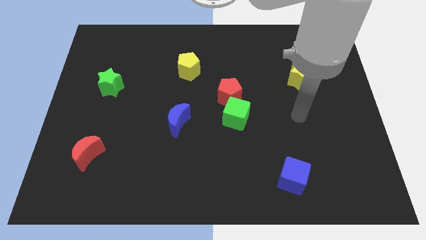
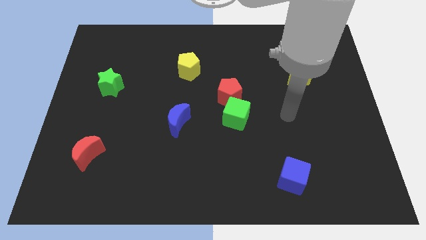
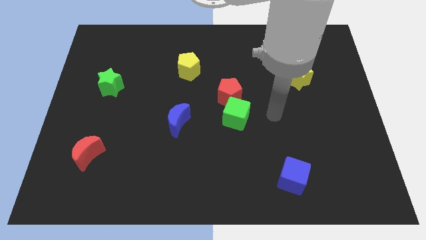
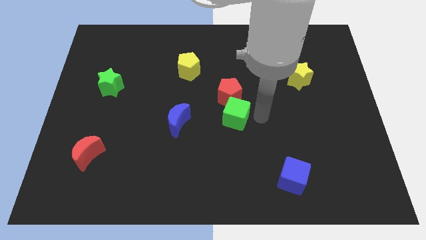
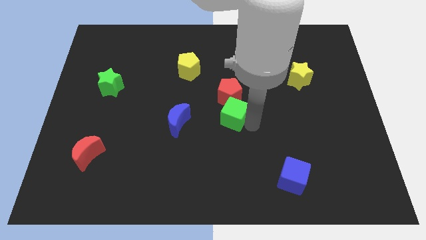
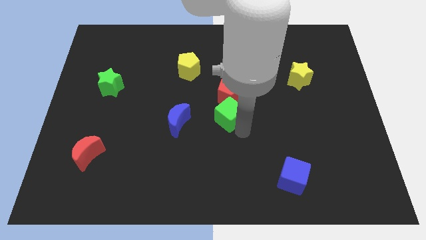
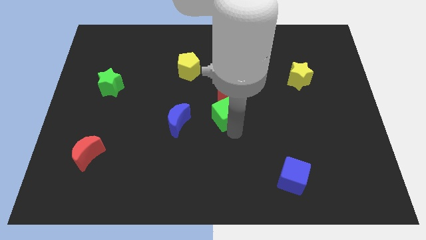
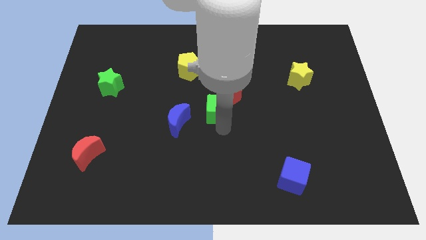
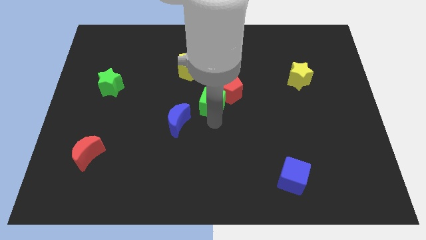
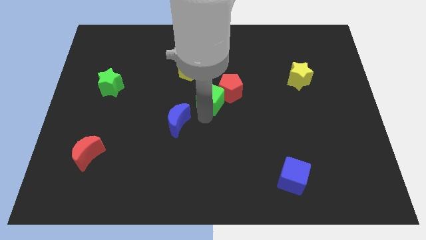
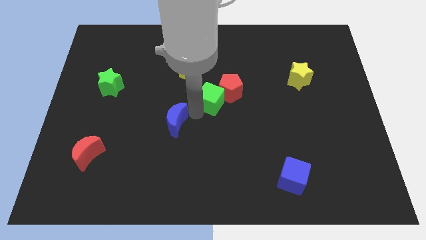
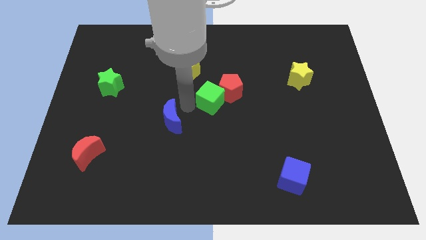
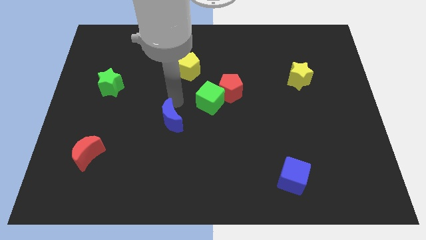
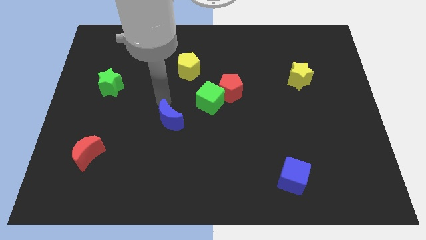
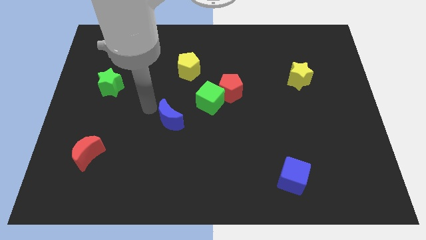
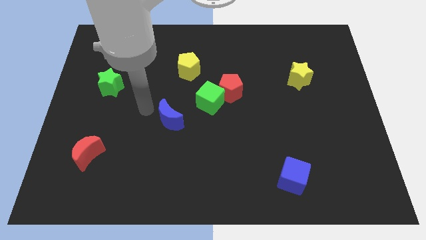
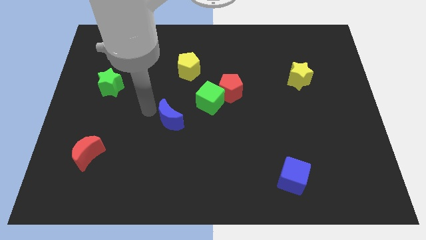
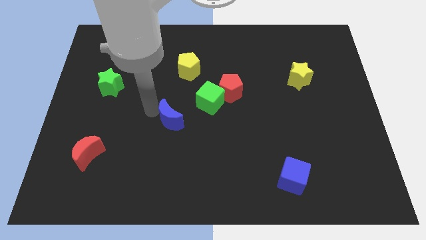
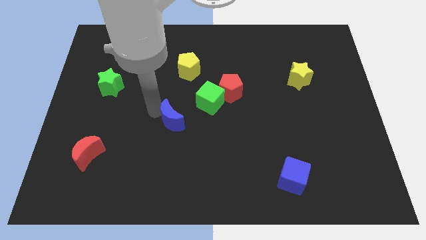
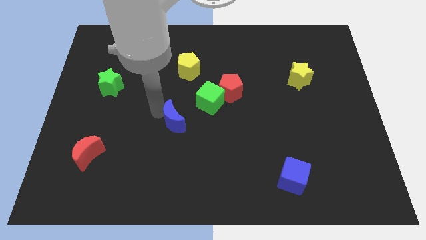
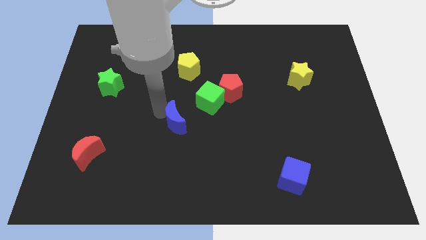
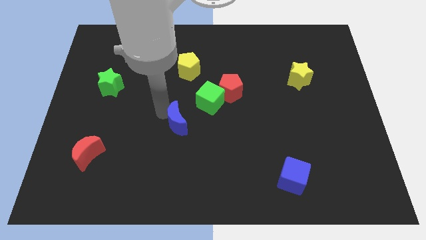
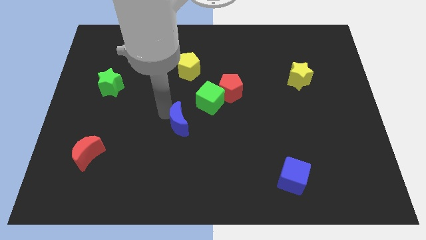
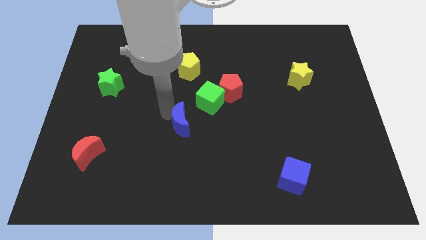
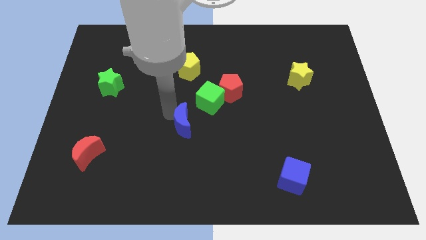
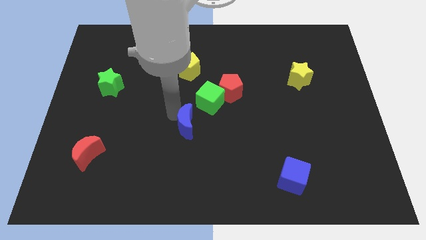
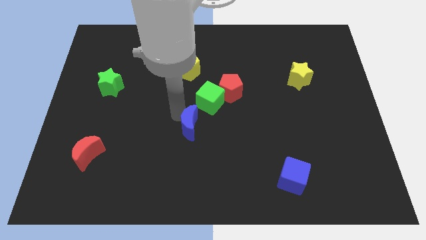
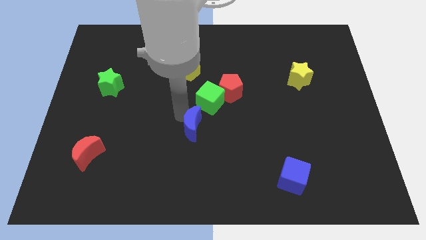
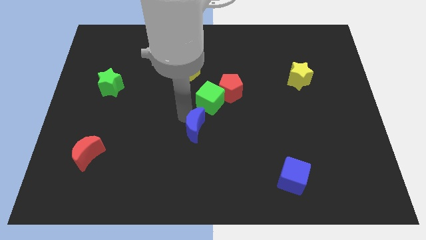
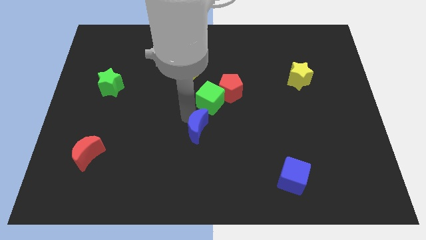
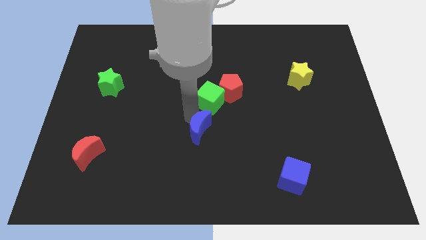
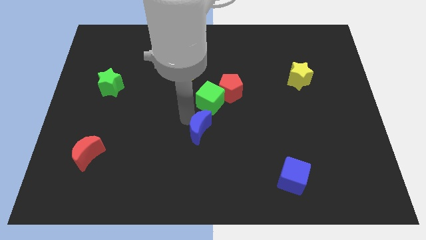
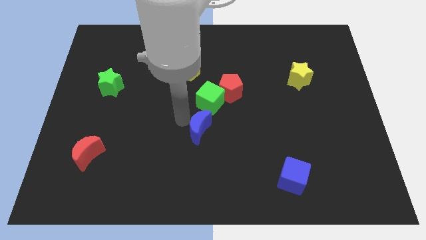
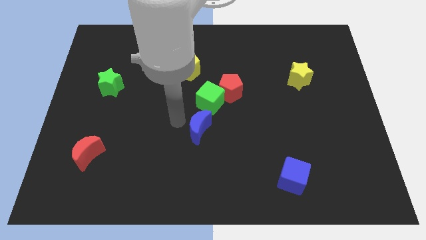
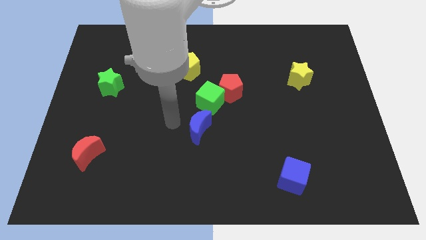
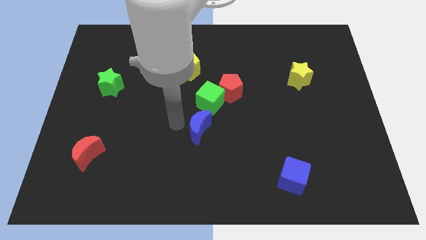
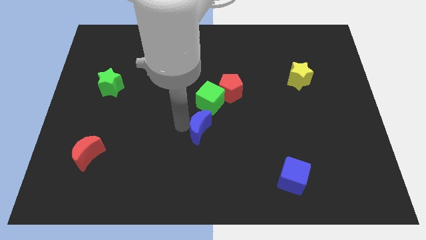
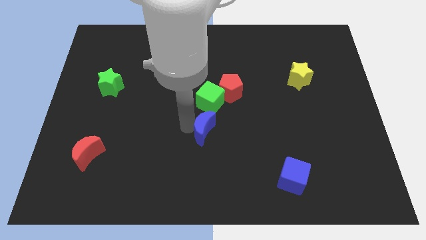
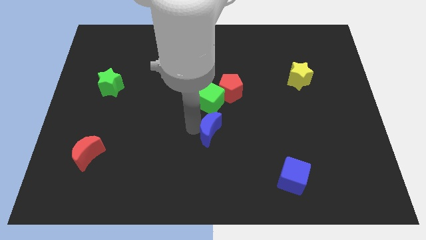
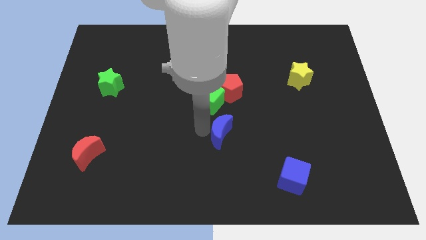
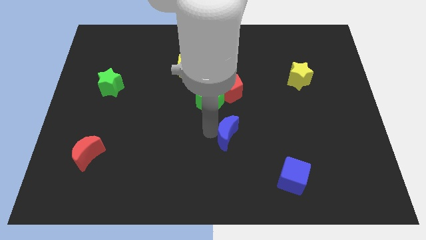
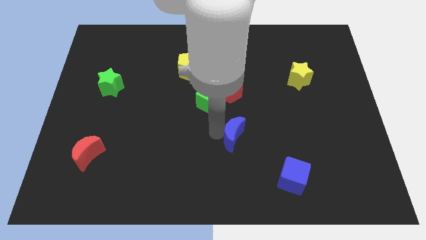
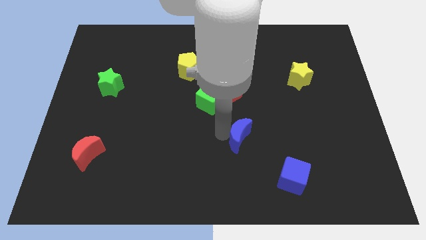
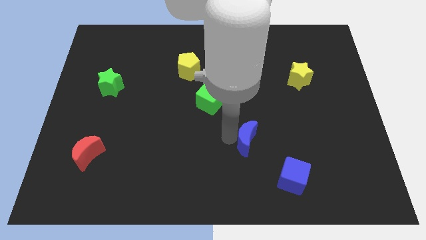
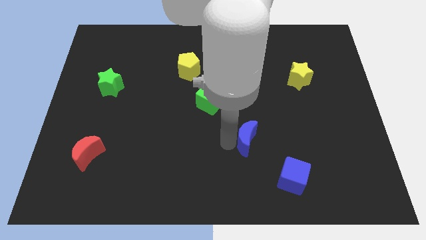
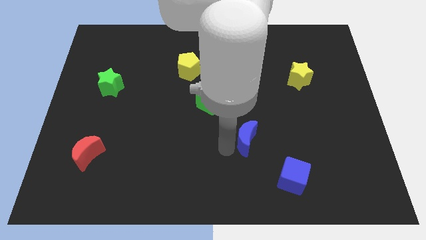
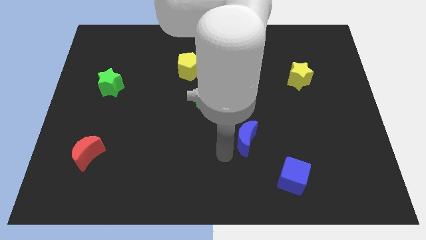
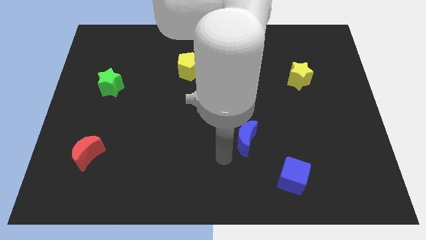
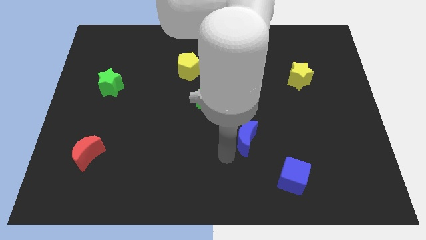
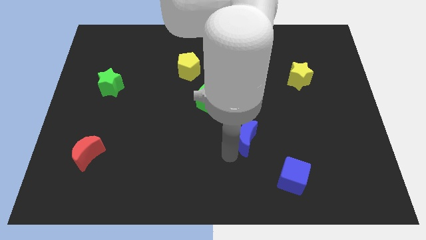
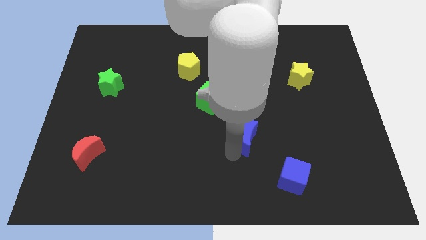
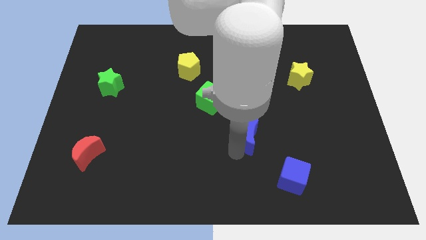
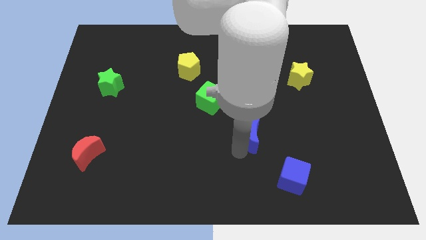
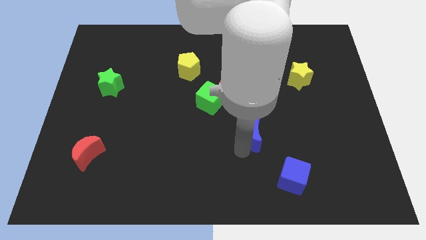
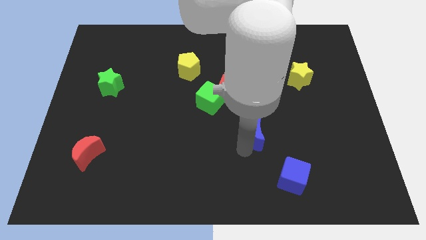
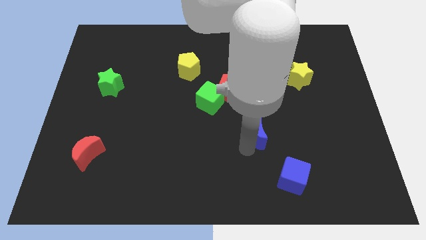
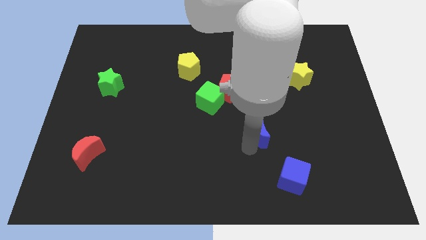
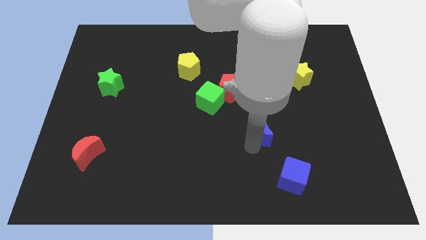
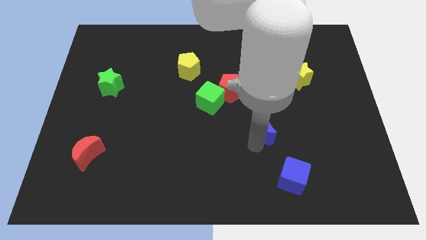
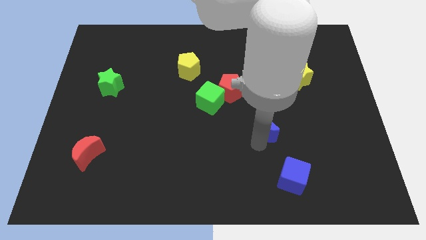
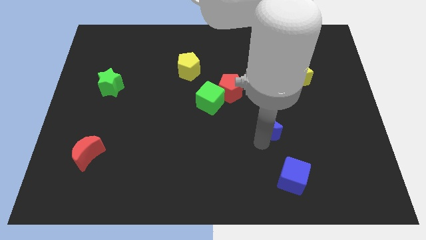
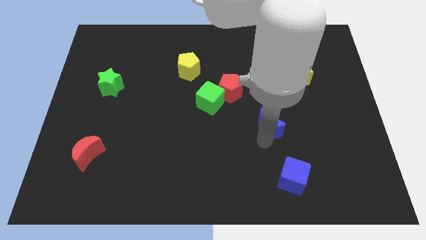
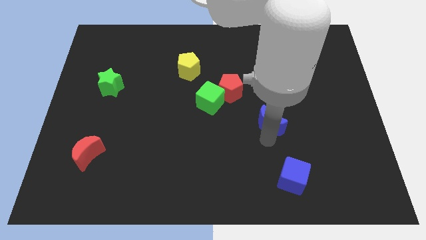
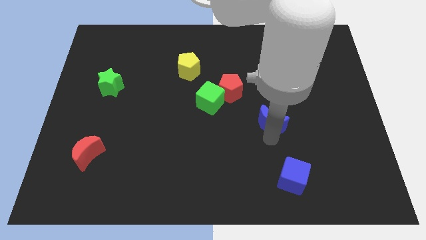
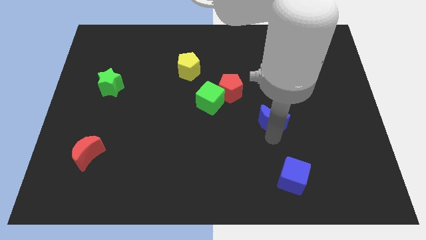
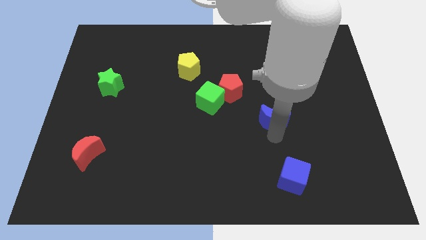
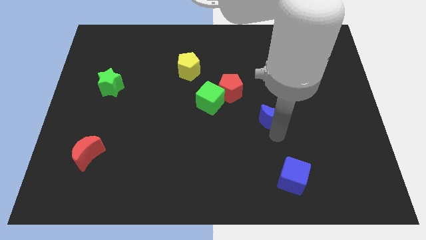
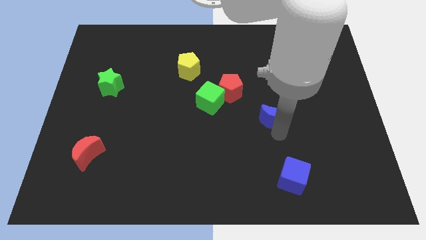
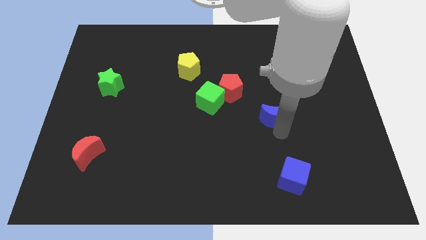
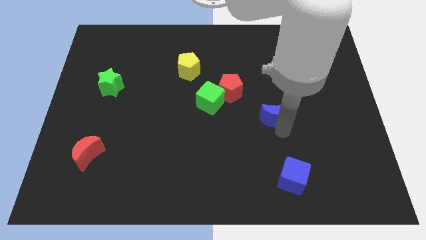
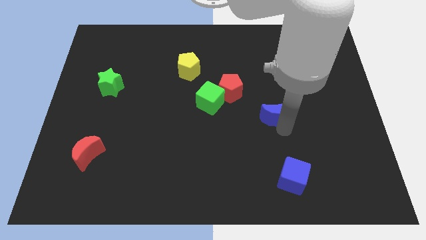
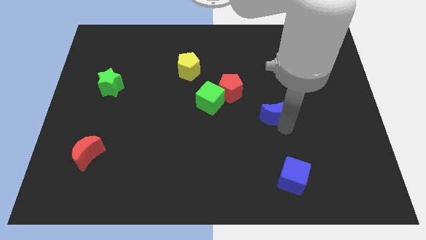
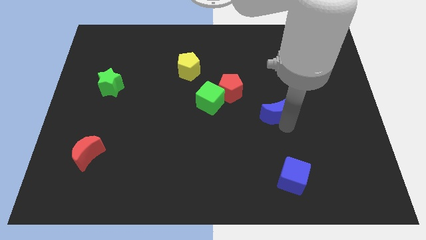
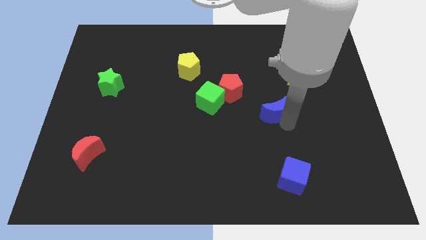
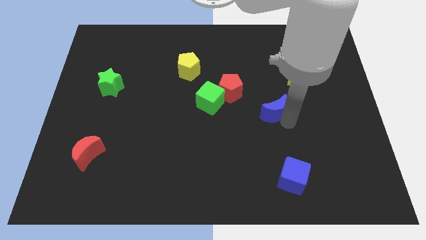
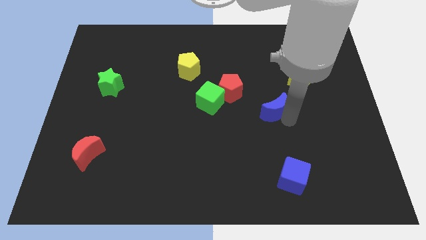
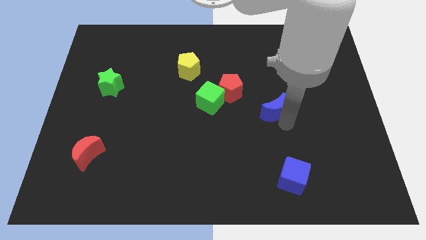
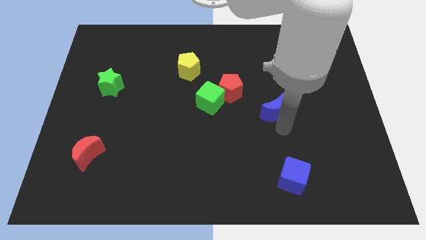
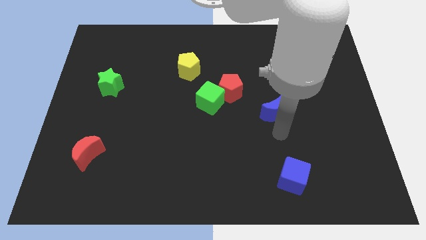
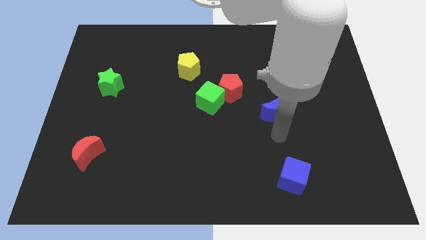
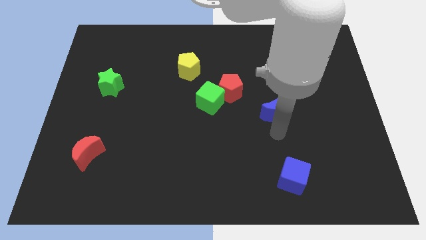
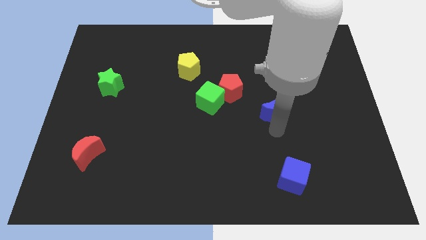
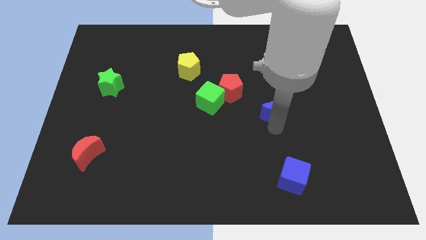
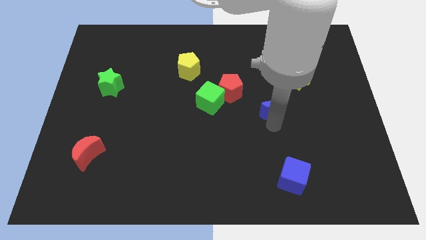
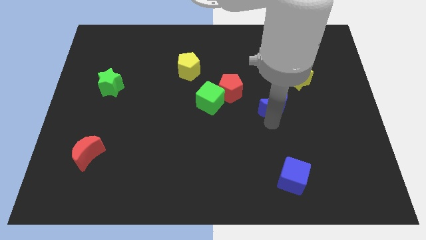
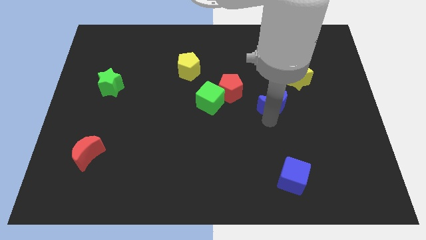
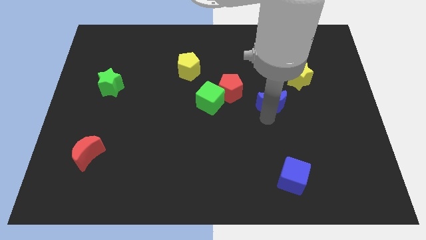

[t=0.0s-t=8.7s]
slide the blue moon right of the red pentagon
